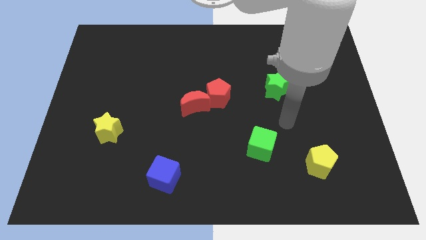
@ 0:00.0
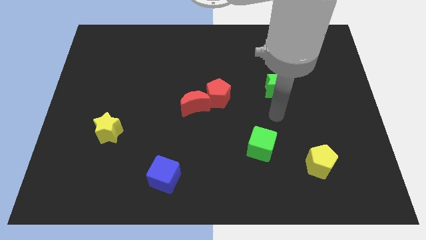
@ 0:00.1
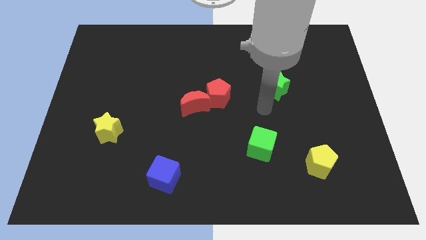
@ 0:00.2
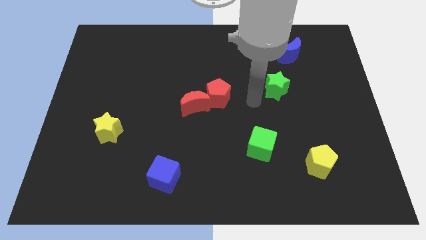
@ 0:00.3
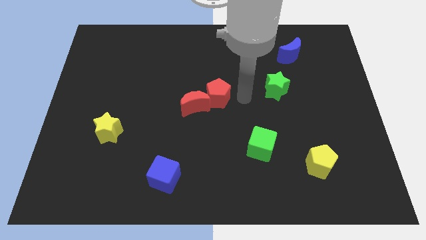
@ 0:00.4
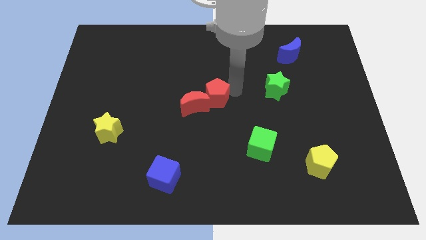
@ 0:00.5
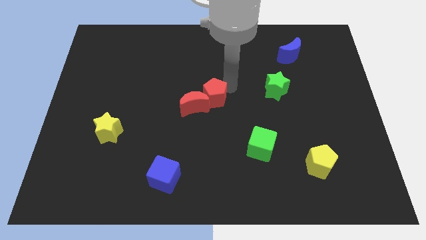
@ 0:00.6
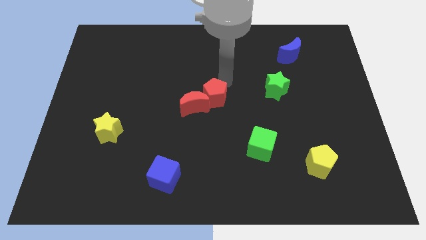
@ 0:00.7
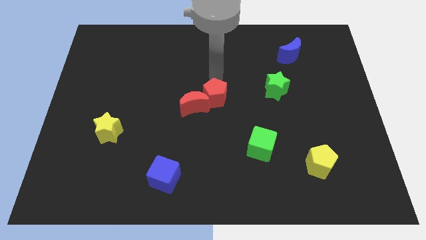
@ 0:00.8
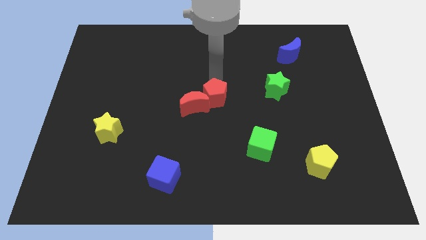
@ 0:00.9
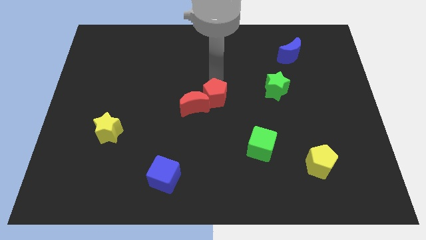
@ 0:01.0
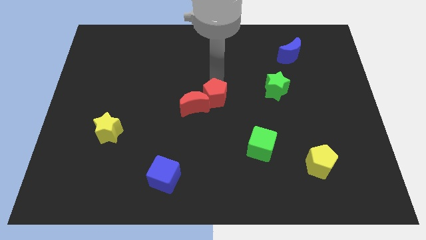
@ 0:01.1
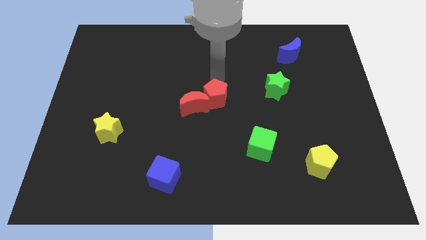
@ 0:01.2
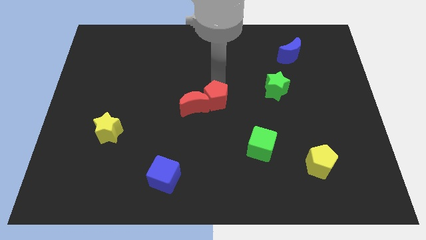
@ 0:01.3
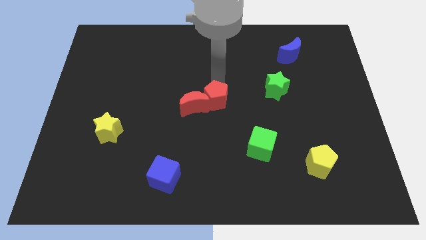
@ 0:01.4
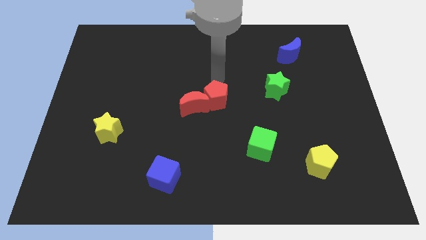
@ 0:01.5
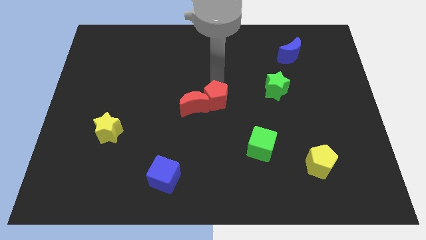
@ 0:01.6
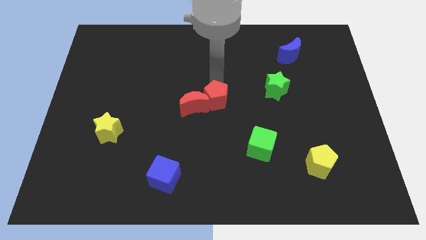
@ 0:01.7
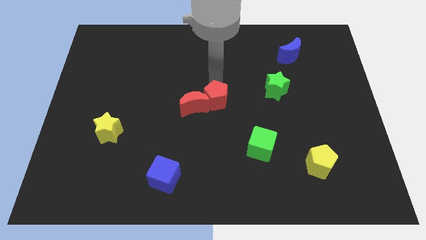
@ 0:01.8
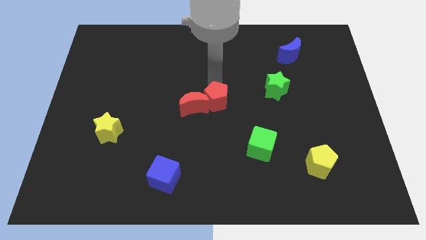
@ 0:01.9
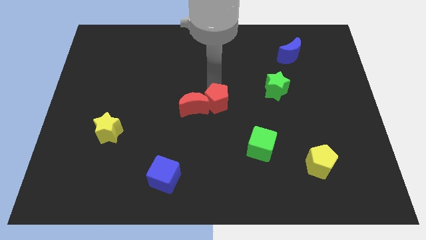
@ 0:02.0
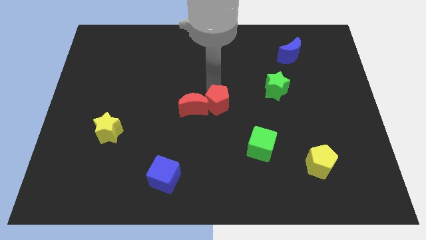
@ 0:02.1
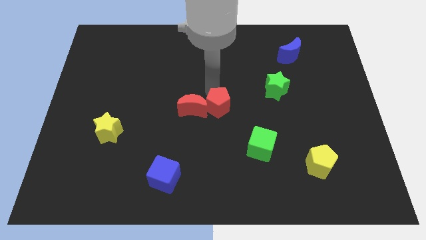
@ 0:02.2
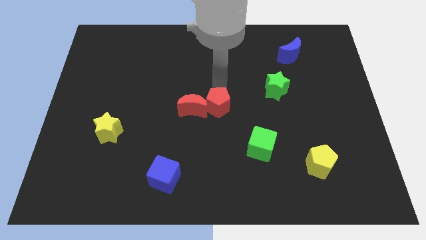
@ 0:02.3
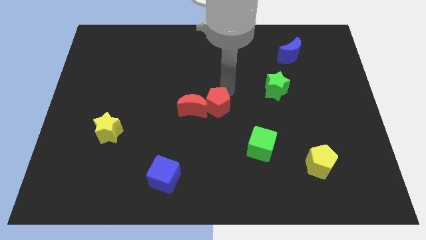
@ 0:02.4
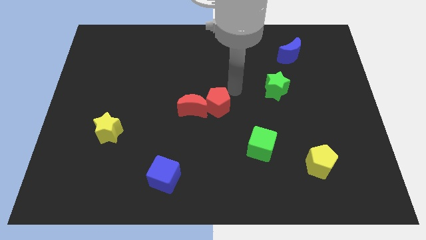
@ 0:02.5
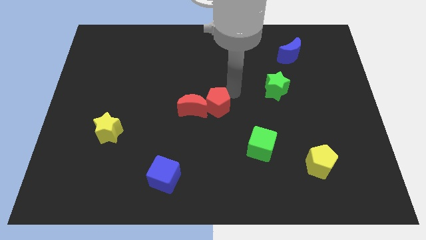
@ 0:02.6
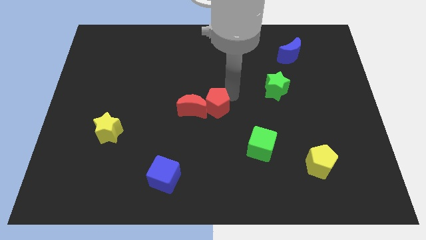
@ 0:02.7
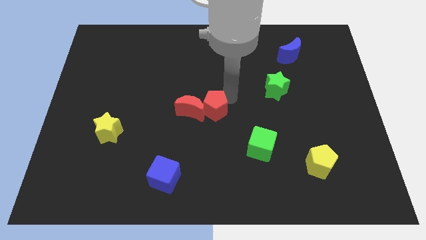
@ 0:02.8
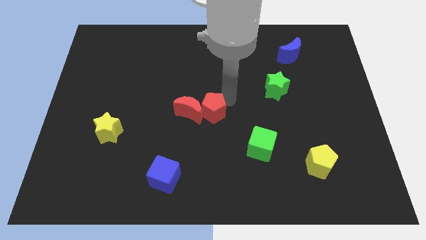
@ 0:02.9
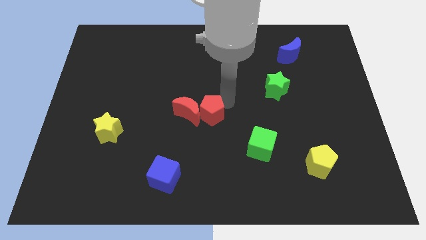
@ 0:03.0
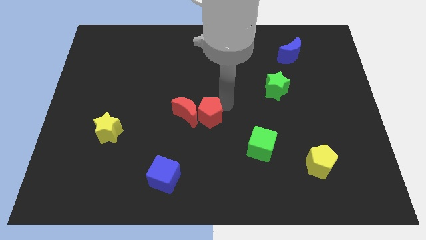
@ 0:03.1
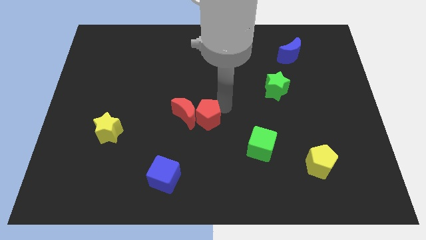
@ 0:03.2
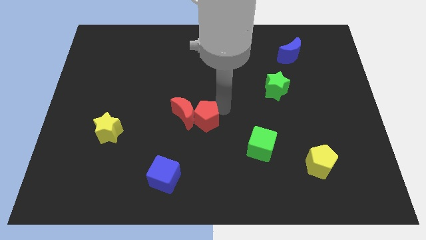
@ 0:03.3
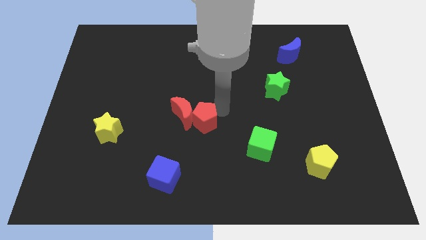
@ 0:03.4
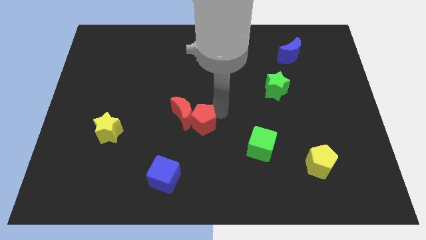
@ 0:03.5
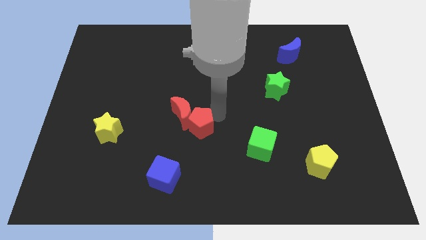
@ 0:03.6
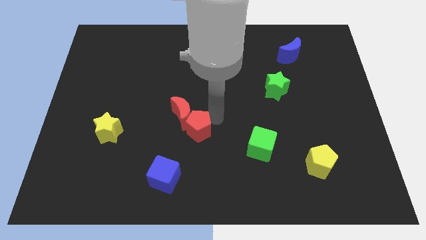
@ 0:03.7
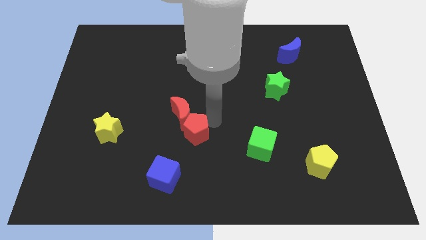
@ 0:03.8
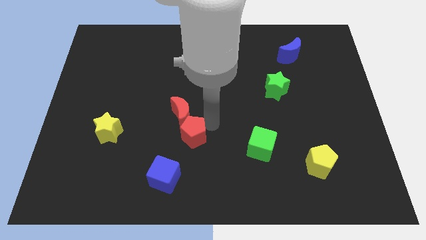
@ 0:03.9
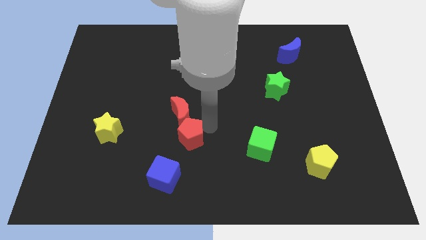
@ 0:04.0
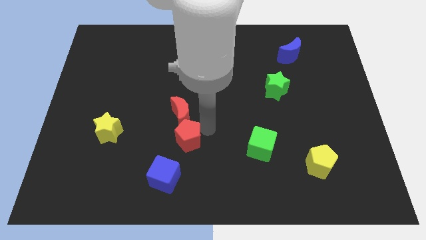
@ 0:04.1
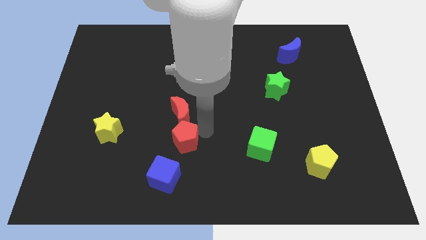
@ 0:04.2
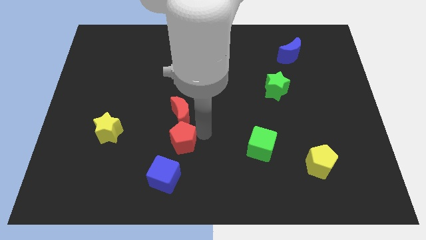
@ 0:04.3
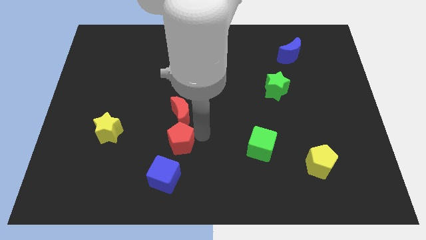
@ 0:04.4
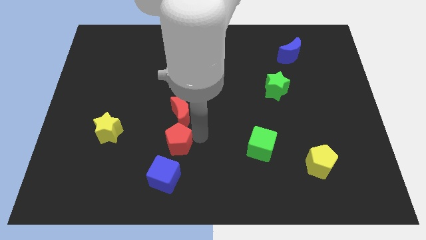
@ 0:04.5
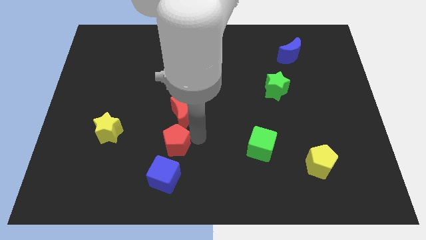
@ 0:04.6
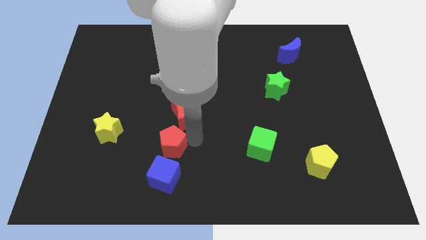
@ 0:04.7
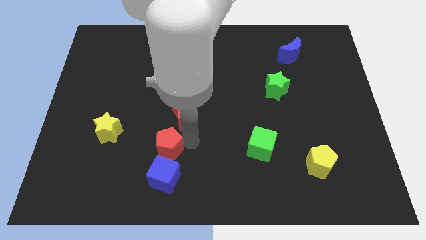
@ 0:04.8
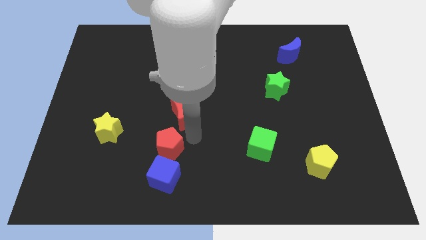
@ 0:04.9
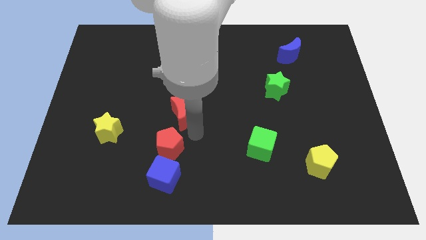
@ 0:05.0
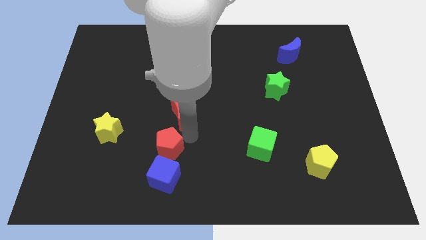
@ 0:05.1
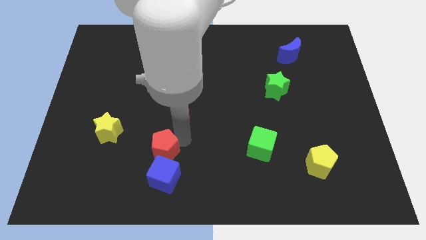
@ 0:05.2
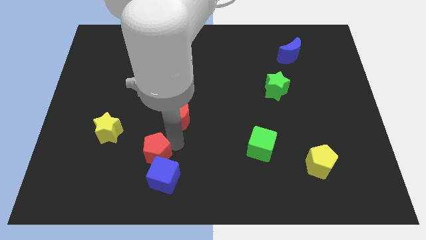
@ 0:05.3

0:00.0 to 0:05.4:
push the red pentagon down and to the left

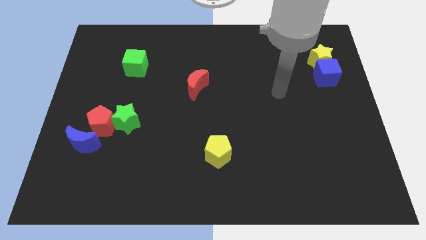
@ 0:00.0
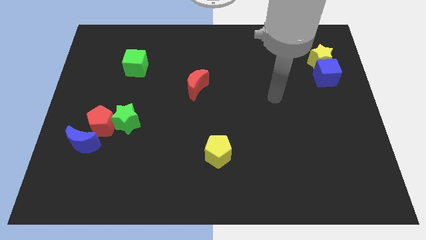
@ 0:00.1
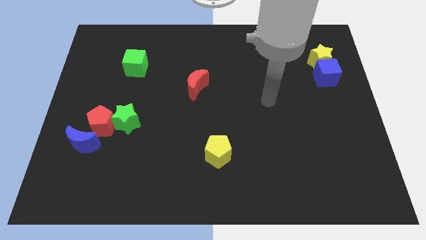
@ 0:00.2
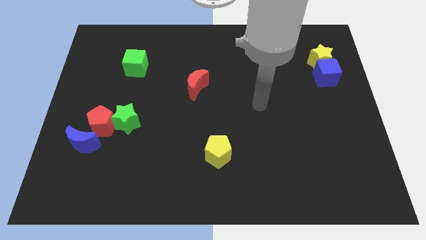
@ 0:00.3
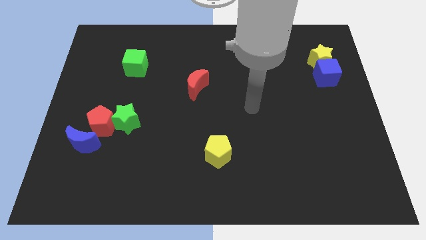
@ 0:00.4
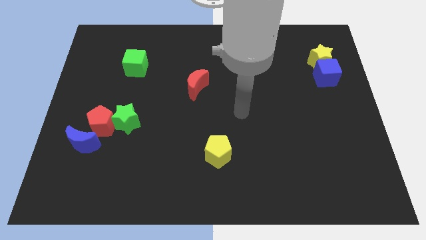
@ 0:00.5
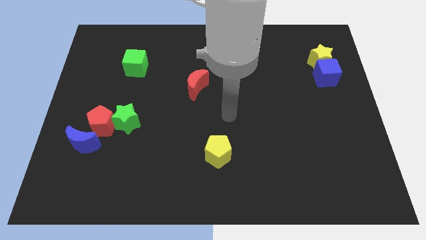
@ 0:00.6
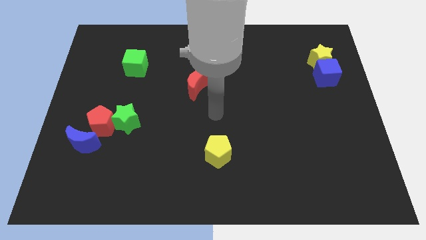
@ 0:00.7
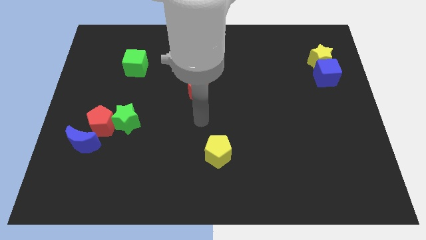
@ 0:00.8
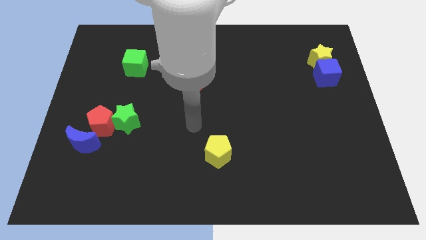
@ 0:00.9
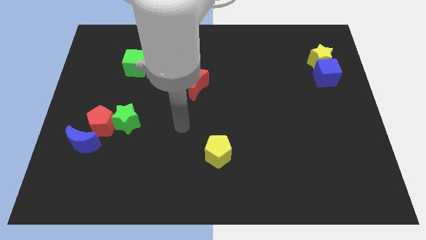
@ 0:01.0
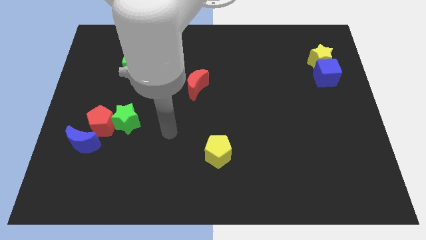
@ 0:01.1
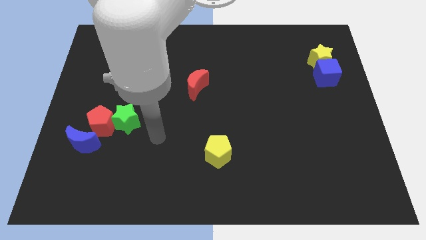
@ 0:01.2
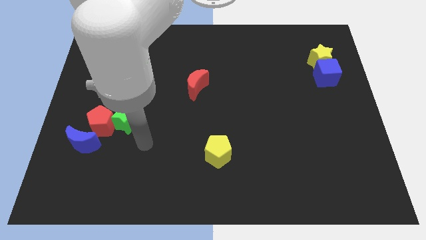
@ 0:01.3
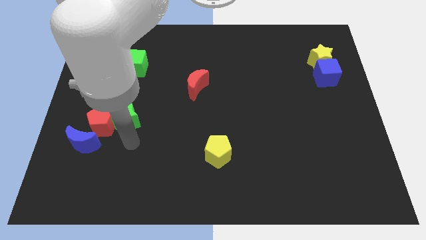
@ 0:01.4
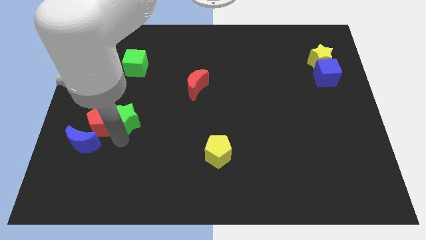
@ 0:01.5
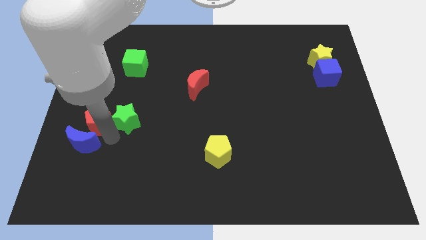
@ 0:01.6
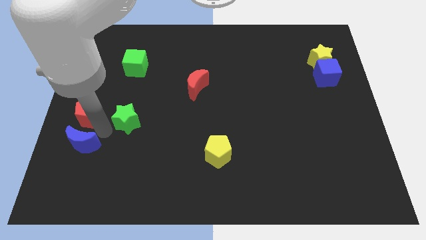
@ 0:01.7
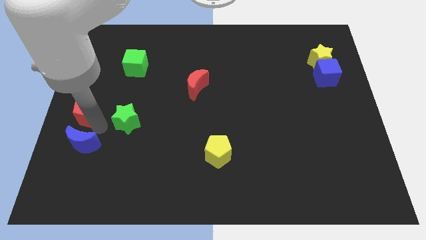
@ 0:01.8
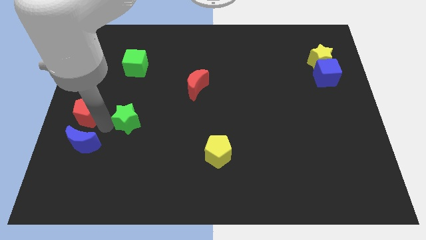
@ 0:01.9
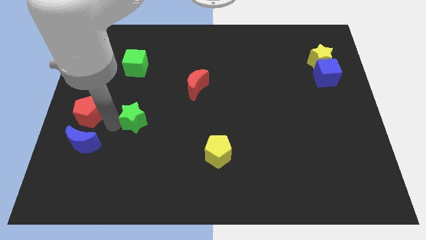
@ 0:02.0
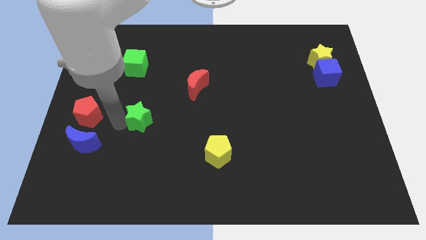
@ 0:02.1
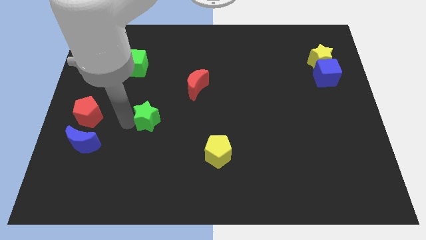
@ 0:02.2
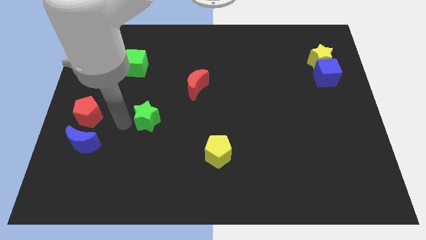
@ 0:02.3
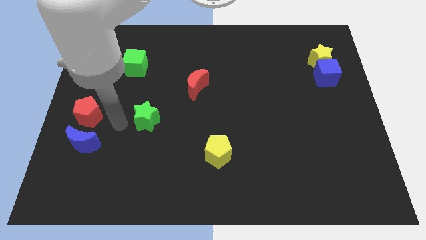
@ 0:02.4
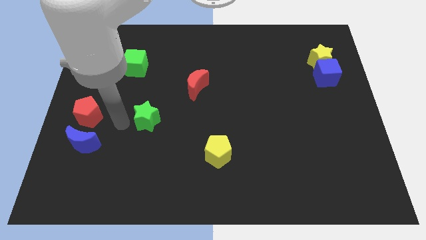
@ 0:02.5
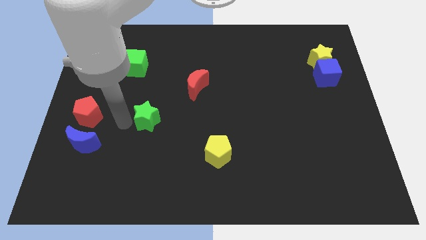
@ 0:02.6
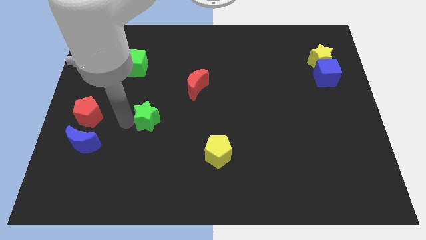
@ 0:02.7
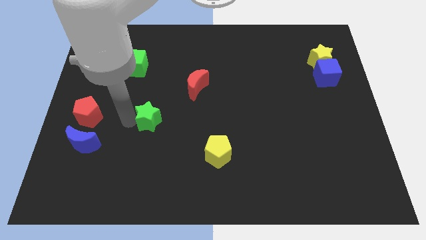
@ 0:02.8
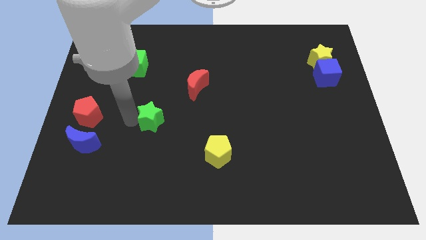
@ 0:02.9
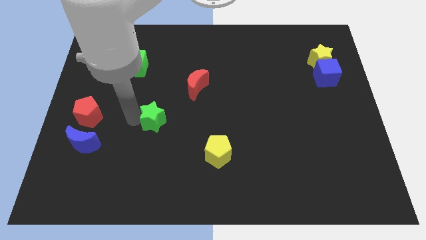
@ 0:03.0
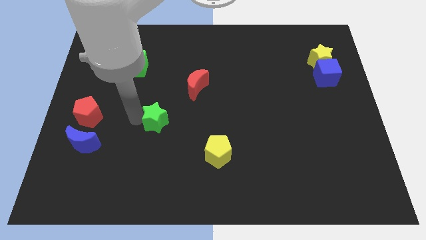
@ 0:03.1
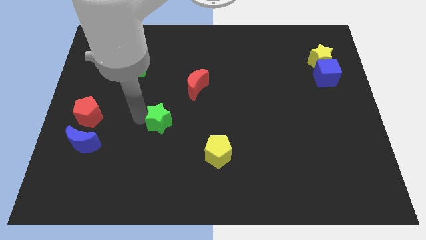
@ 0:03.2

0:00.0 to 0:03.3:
slightly push the green star to the right
